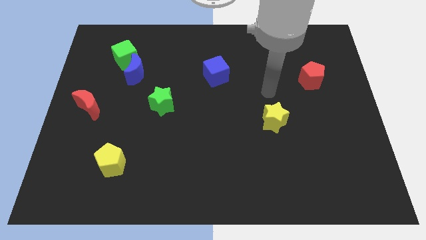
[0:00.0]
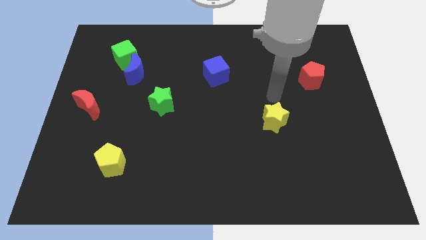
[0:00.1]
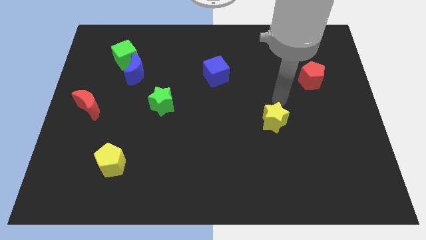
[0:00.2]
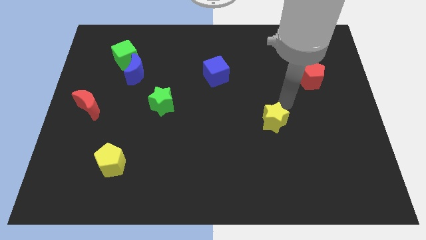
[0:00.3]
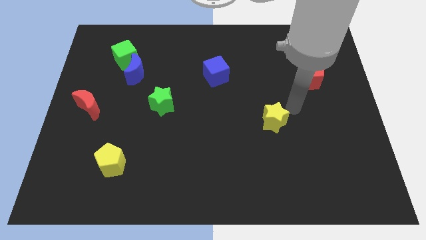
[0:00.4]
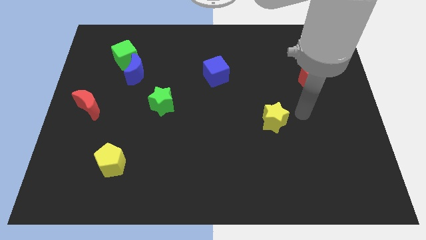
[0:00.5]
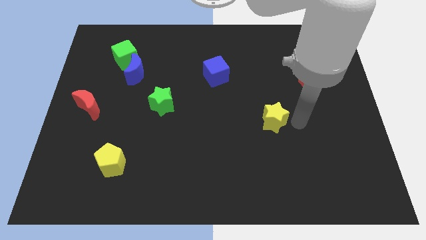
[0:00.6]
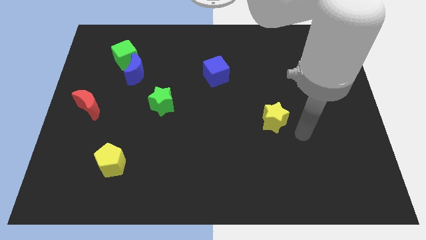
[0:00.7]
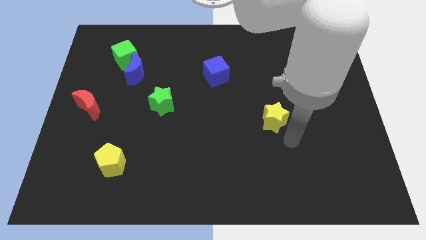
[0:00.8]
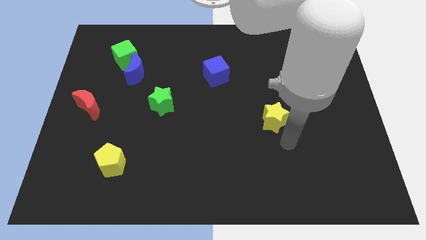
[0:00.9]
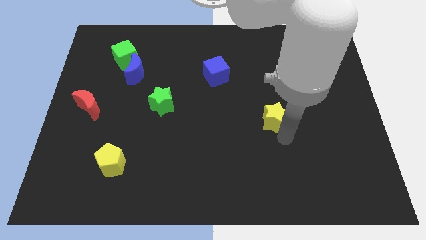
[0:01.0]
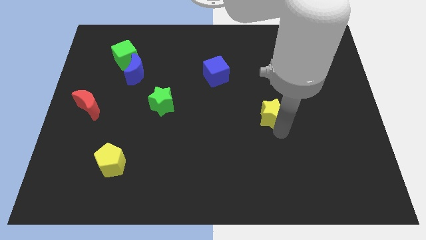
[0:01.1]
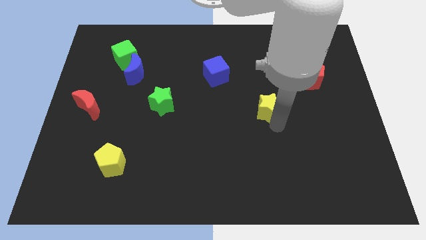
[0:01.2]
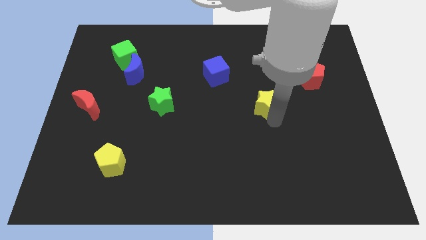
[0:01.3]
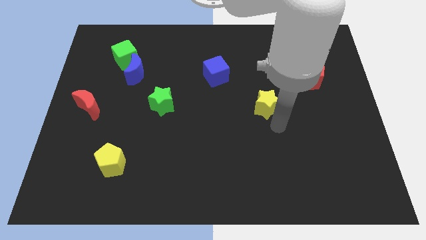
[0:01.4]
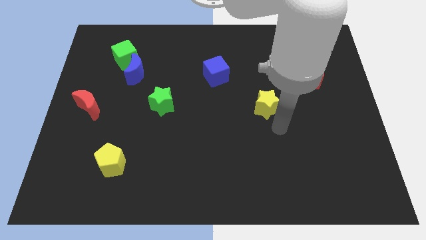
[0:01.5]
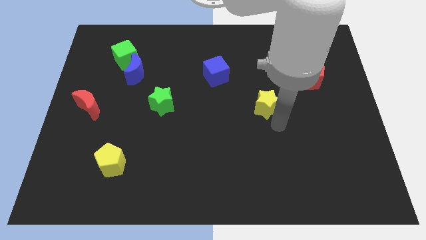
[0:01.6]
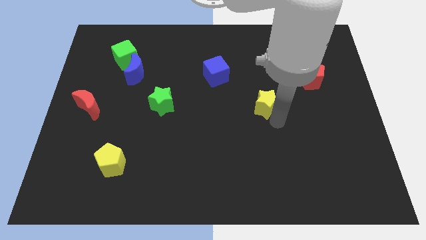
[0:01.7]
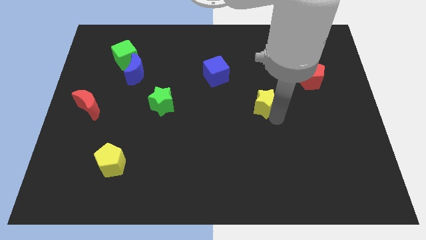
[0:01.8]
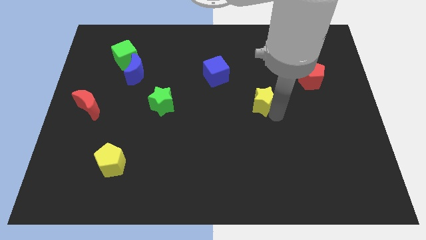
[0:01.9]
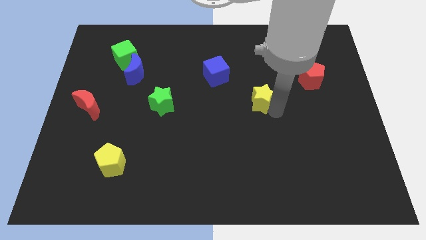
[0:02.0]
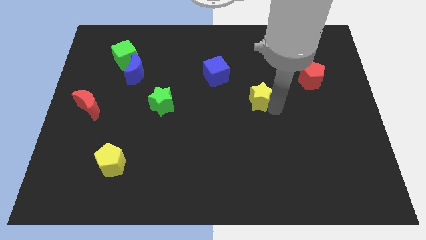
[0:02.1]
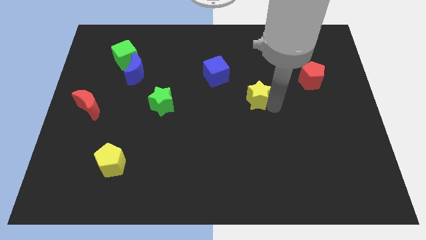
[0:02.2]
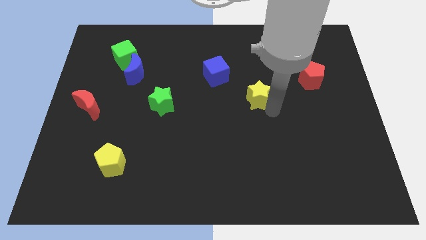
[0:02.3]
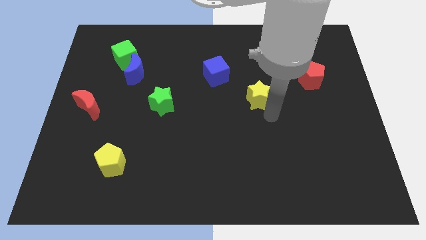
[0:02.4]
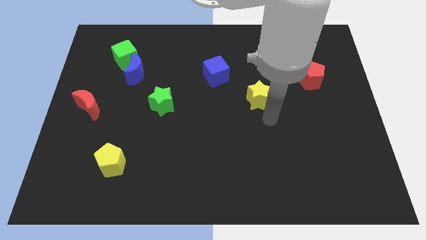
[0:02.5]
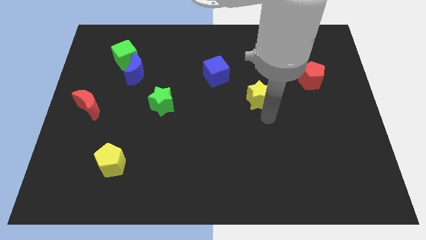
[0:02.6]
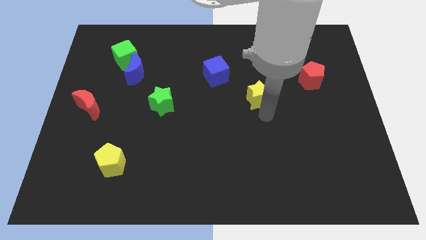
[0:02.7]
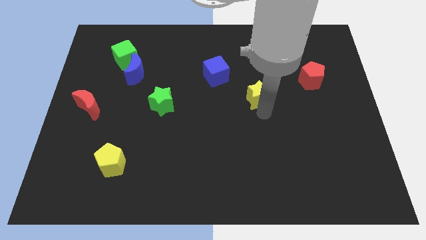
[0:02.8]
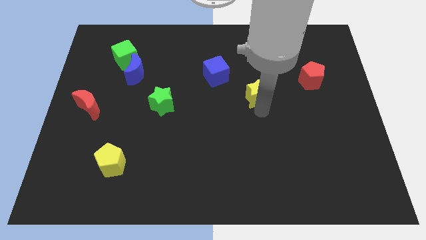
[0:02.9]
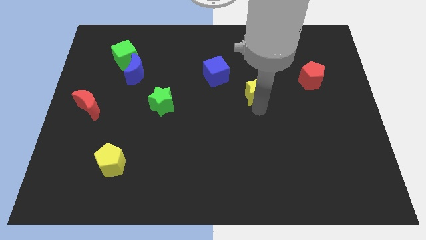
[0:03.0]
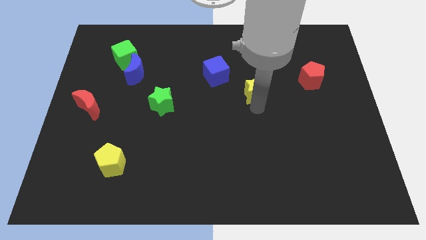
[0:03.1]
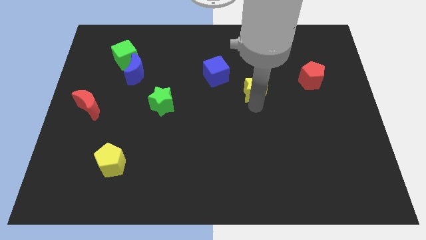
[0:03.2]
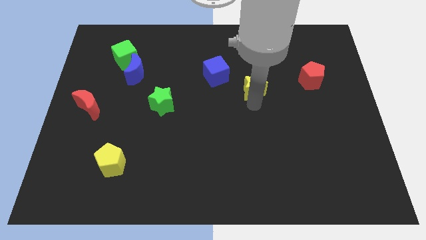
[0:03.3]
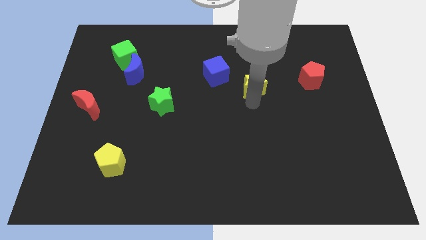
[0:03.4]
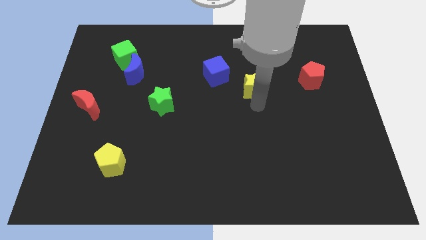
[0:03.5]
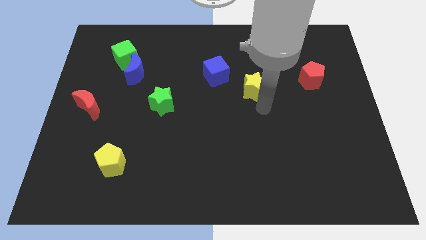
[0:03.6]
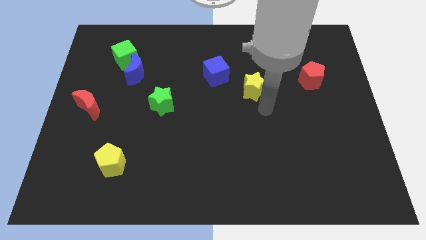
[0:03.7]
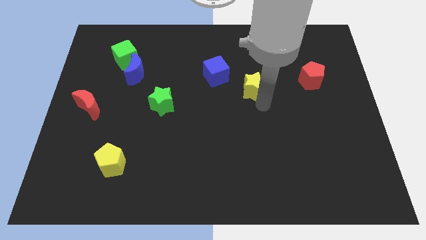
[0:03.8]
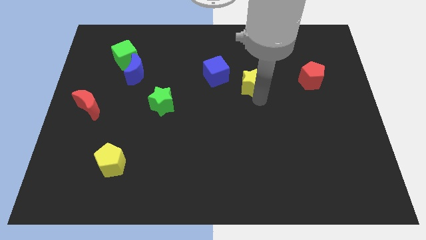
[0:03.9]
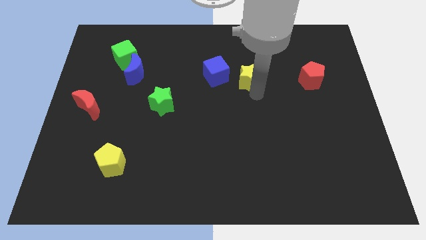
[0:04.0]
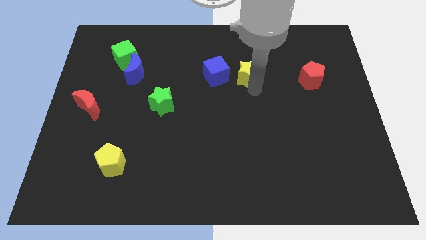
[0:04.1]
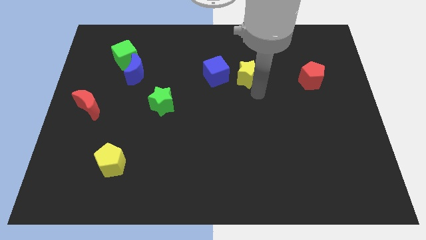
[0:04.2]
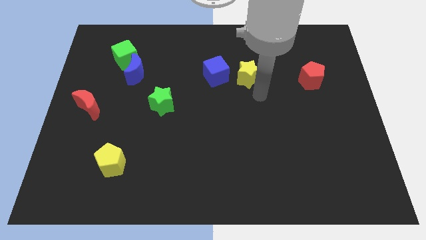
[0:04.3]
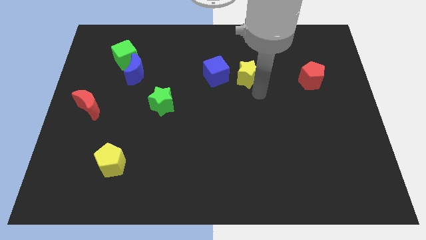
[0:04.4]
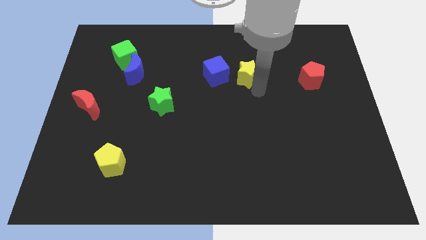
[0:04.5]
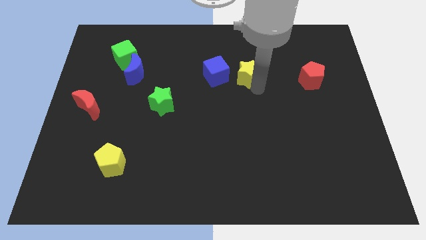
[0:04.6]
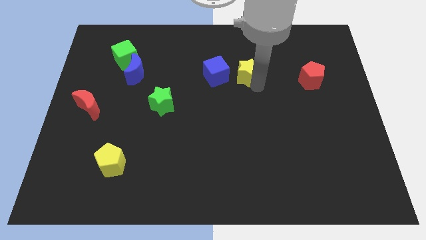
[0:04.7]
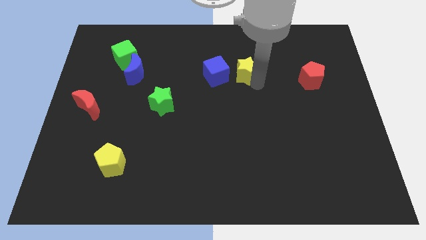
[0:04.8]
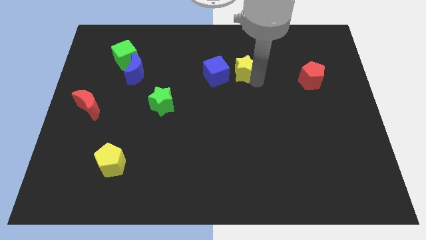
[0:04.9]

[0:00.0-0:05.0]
move the yellow star to the top right of the blue cube
